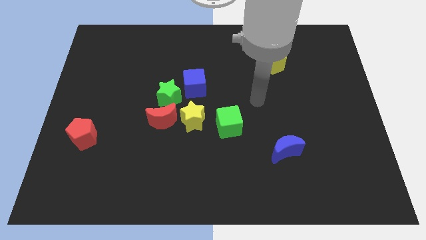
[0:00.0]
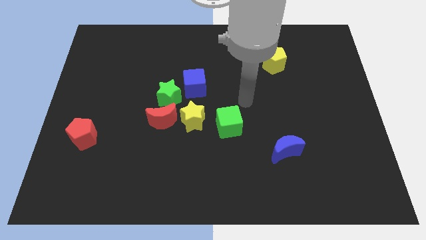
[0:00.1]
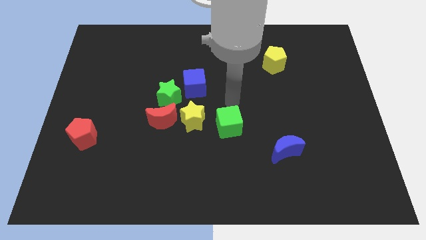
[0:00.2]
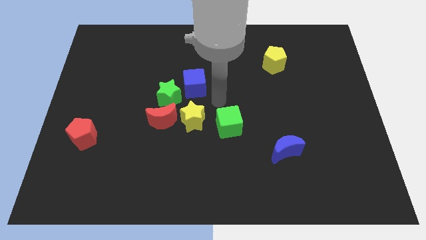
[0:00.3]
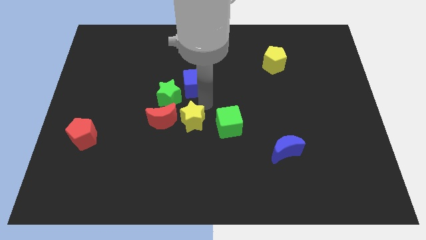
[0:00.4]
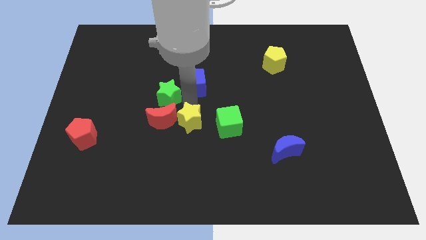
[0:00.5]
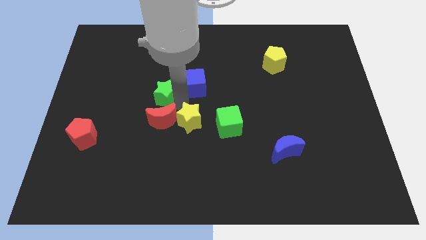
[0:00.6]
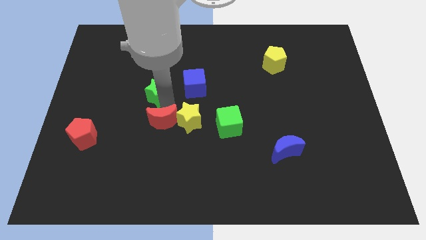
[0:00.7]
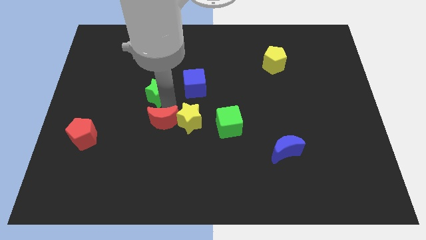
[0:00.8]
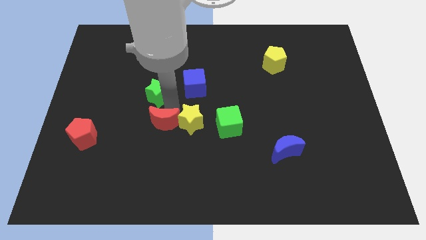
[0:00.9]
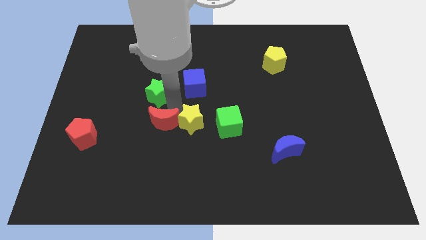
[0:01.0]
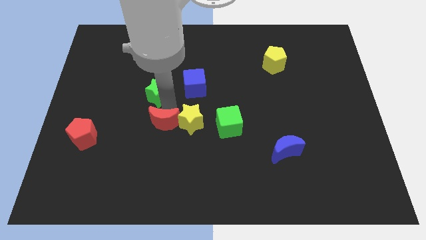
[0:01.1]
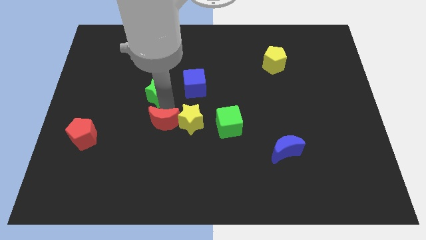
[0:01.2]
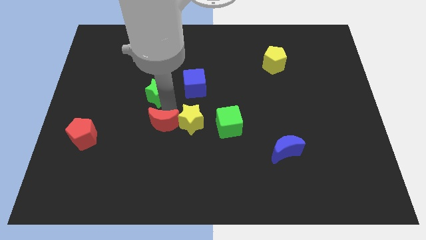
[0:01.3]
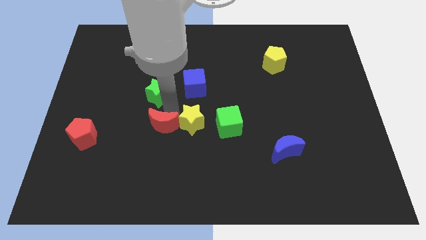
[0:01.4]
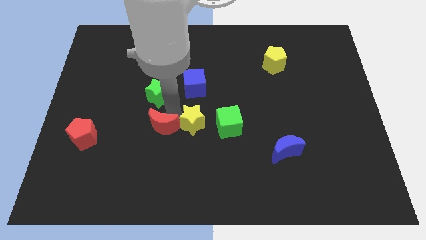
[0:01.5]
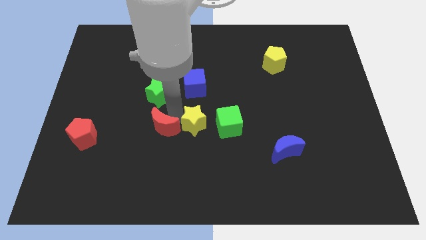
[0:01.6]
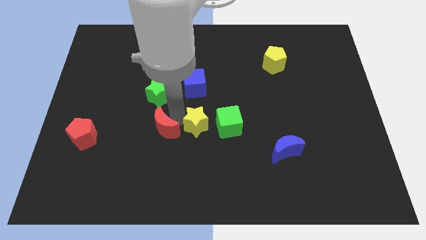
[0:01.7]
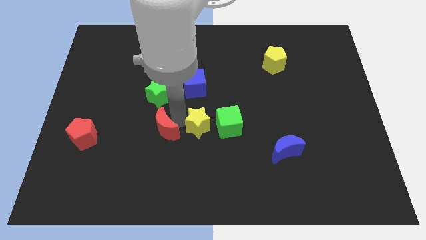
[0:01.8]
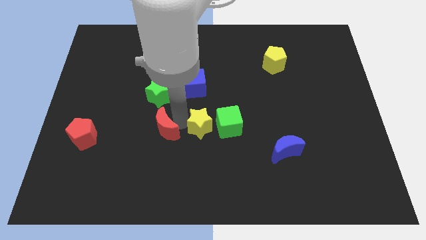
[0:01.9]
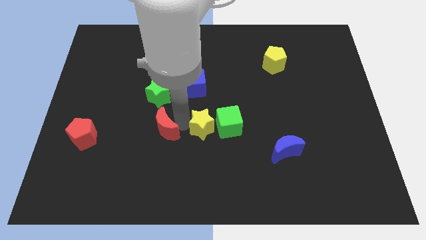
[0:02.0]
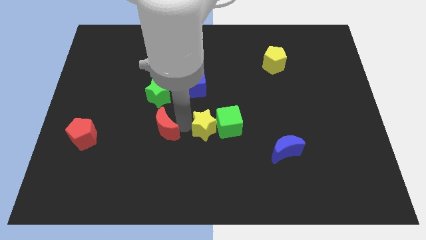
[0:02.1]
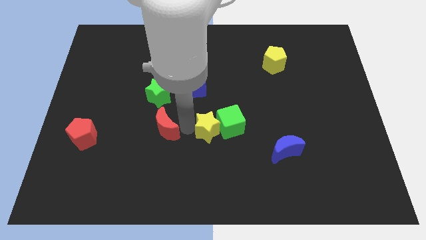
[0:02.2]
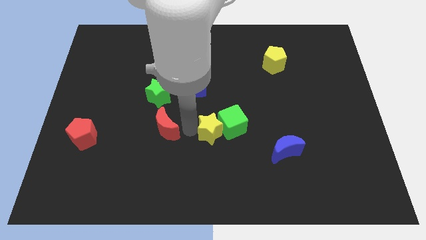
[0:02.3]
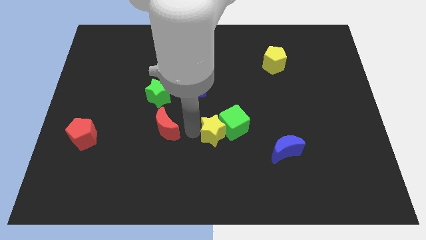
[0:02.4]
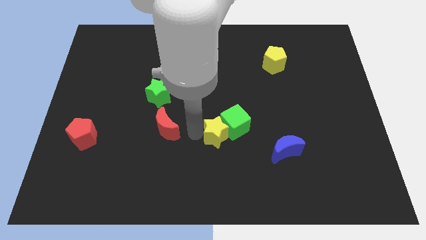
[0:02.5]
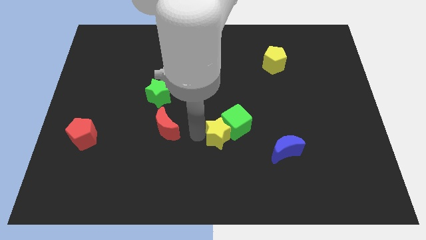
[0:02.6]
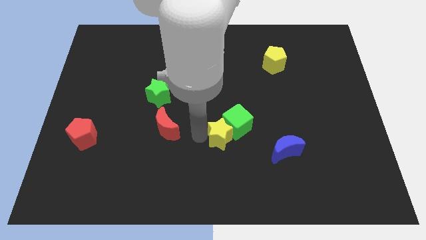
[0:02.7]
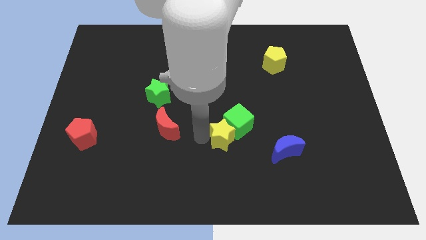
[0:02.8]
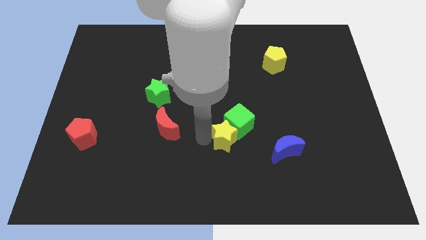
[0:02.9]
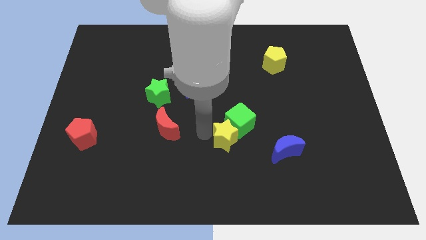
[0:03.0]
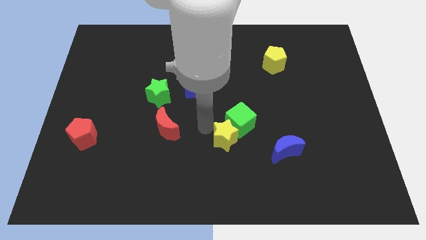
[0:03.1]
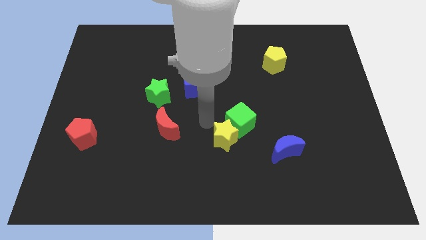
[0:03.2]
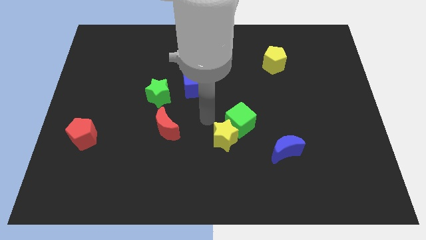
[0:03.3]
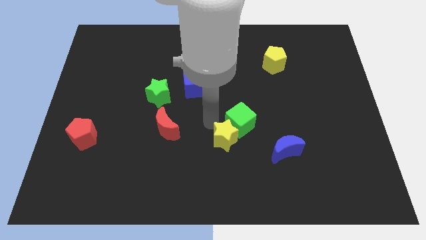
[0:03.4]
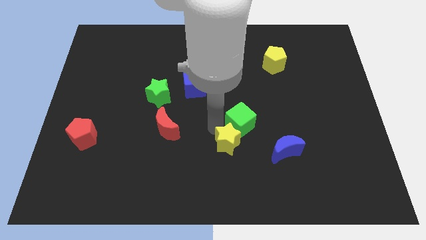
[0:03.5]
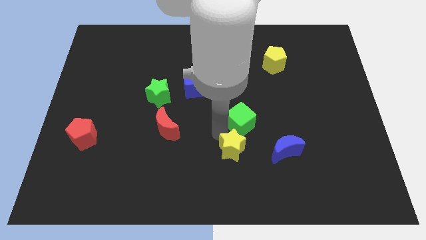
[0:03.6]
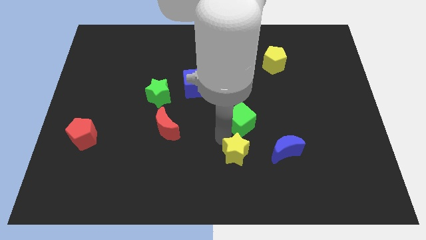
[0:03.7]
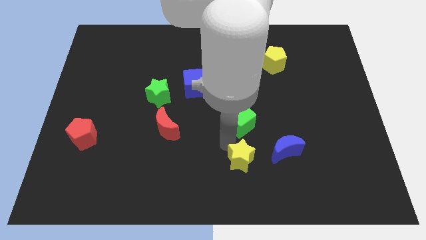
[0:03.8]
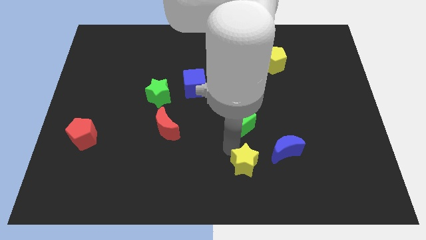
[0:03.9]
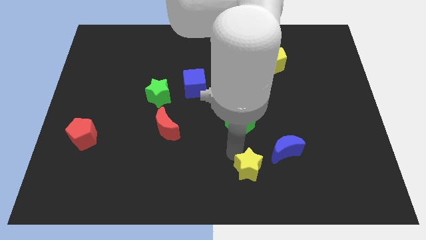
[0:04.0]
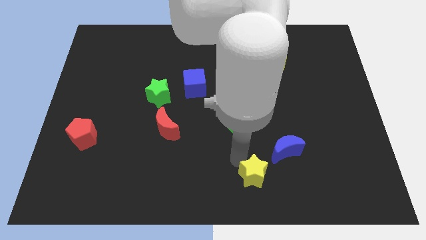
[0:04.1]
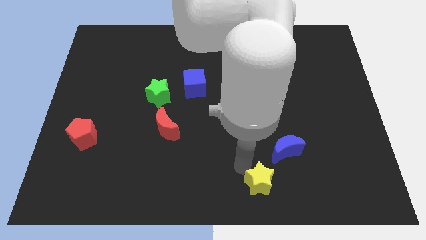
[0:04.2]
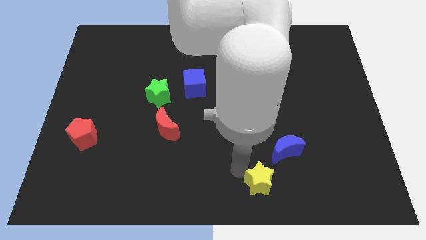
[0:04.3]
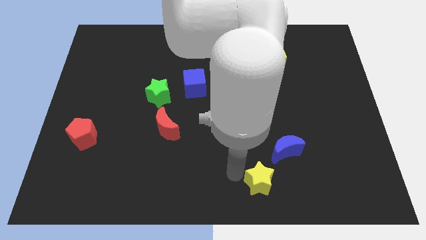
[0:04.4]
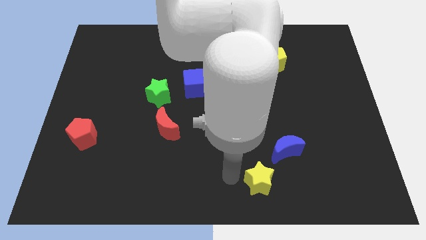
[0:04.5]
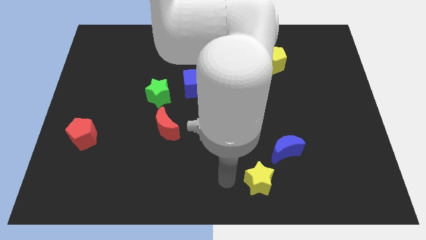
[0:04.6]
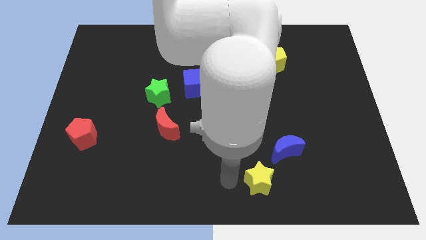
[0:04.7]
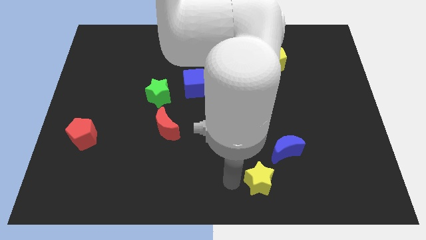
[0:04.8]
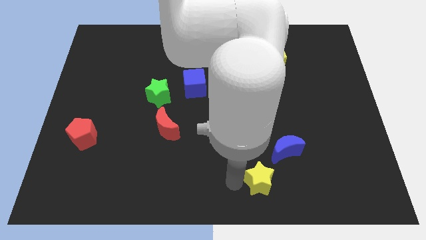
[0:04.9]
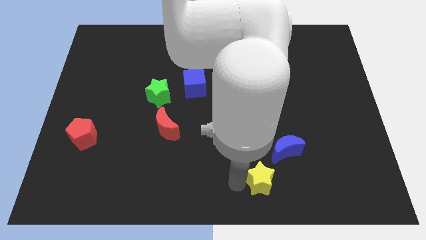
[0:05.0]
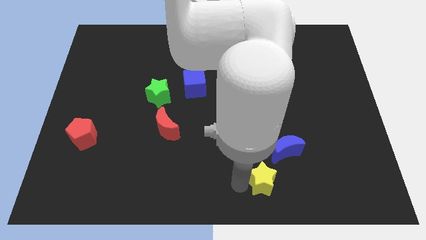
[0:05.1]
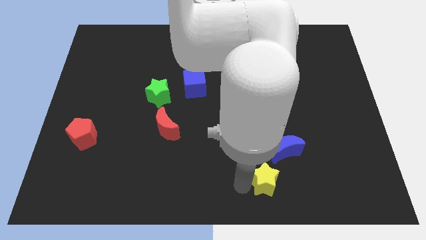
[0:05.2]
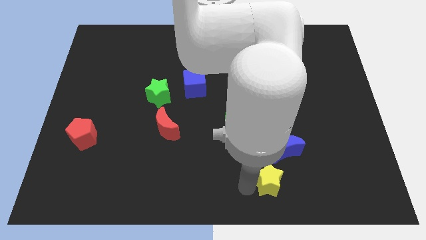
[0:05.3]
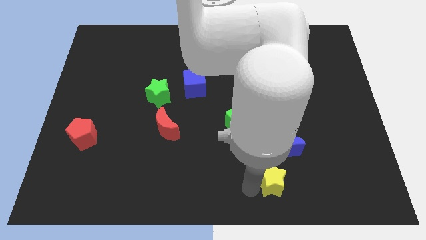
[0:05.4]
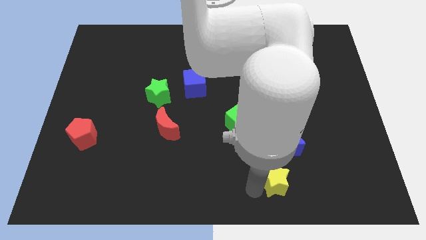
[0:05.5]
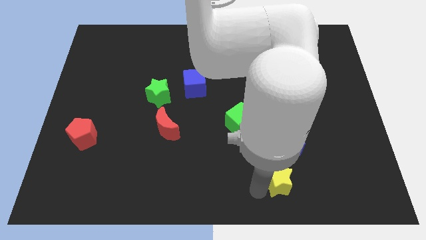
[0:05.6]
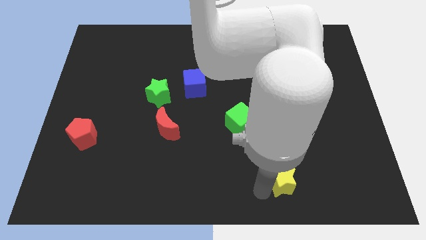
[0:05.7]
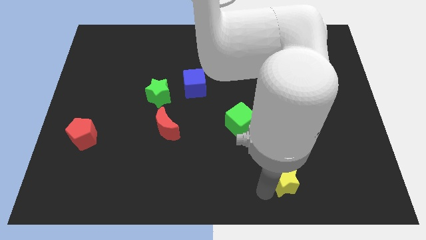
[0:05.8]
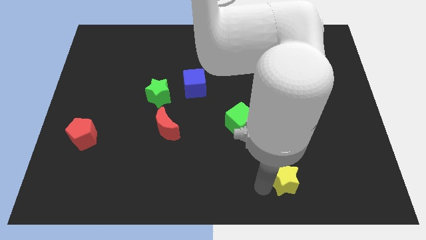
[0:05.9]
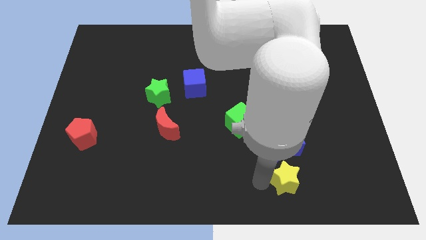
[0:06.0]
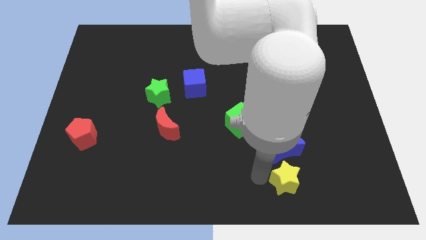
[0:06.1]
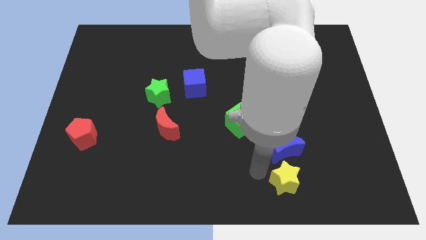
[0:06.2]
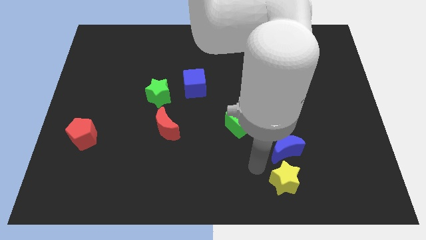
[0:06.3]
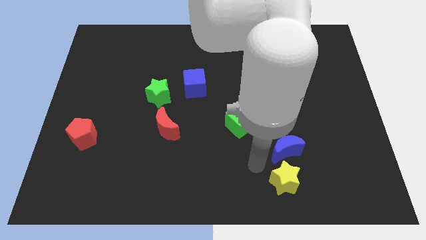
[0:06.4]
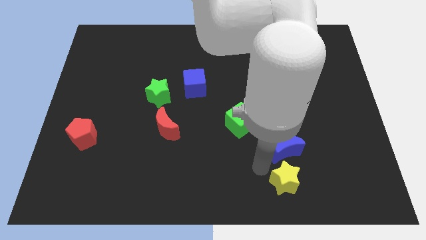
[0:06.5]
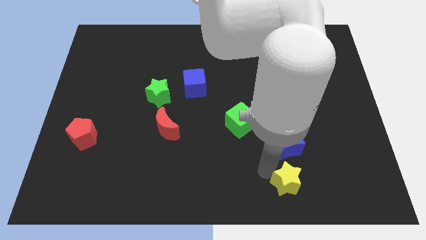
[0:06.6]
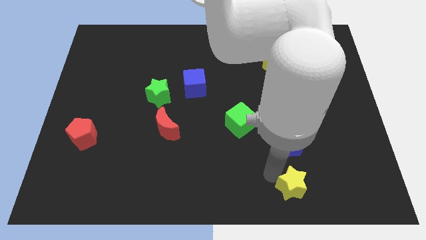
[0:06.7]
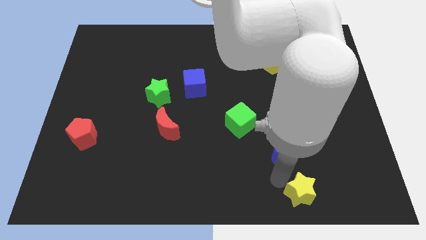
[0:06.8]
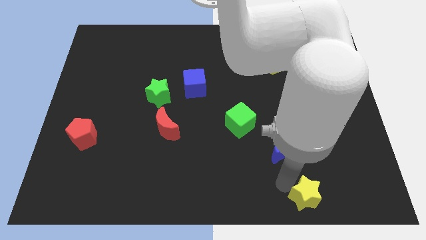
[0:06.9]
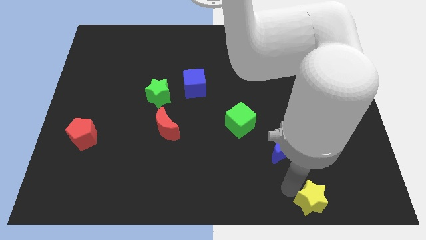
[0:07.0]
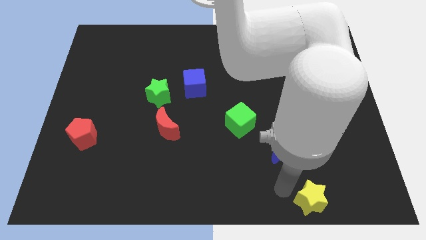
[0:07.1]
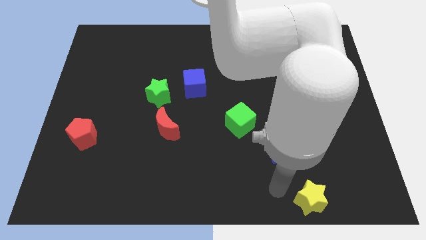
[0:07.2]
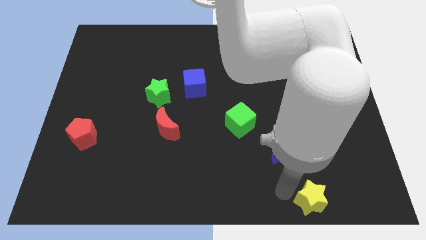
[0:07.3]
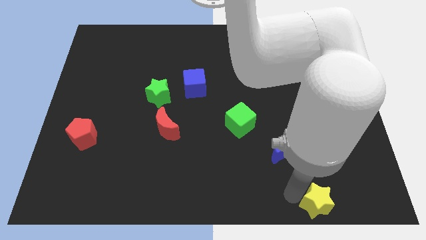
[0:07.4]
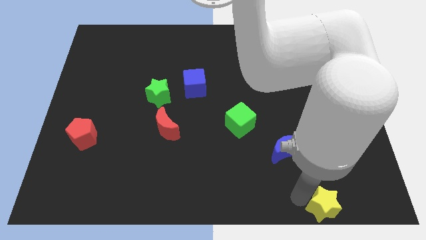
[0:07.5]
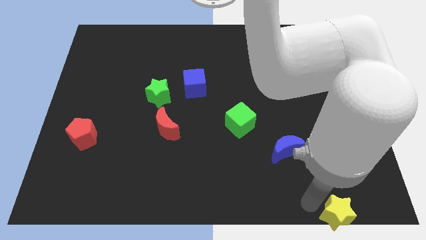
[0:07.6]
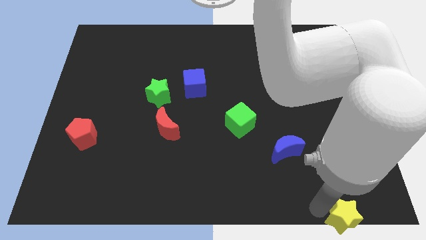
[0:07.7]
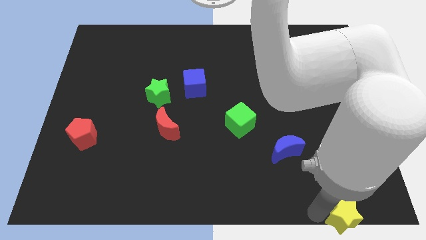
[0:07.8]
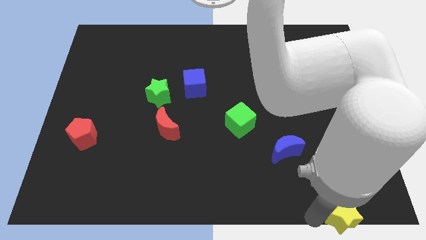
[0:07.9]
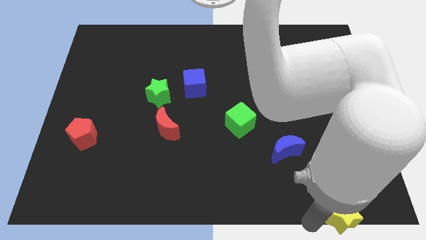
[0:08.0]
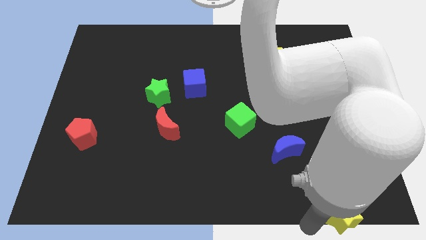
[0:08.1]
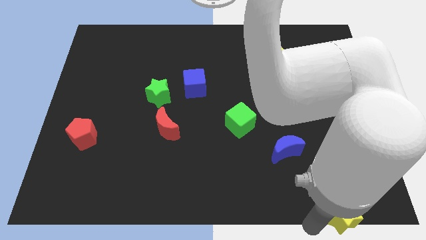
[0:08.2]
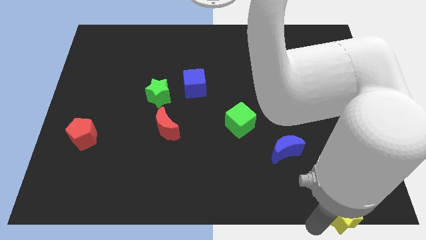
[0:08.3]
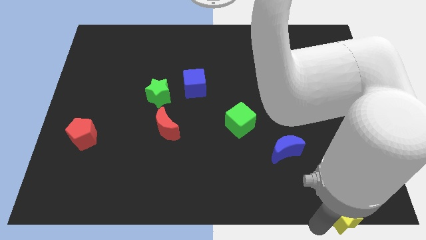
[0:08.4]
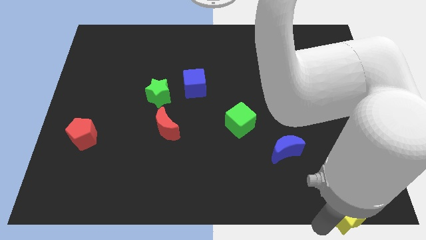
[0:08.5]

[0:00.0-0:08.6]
put the yellow star to the bottom right

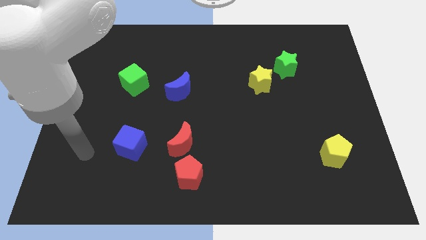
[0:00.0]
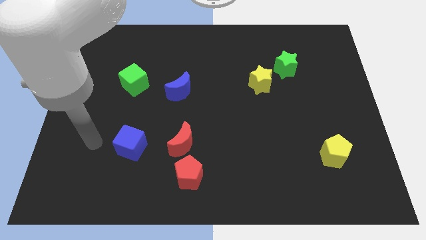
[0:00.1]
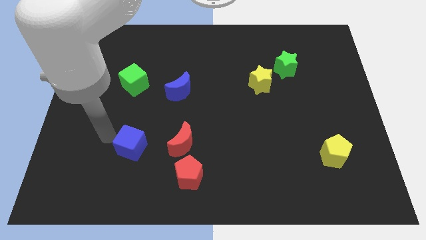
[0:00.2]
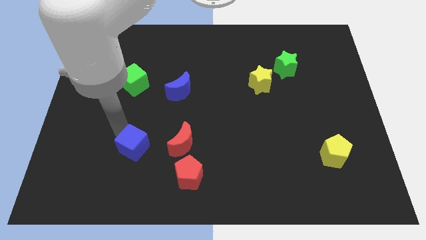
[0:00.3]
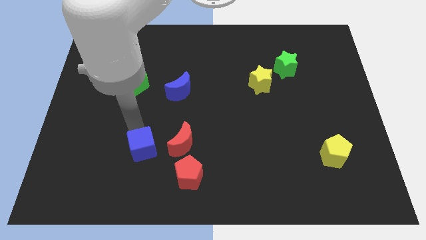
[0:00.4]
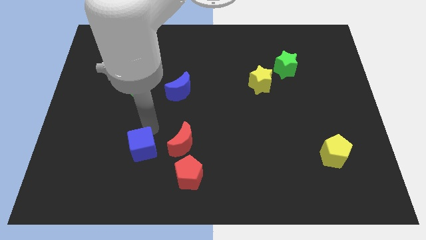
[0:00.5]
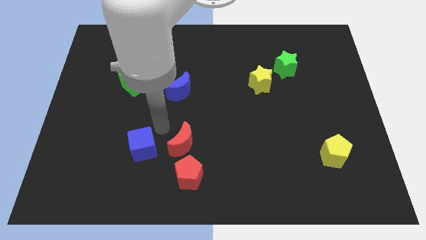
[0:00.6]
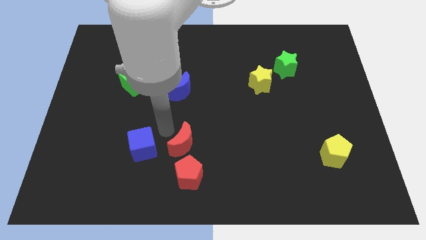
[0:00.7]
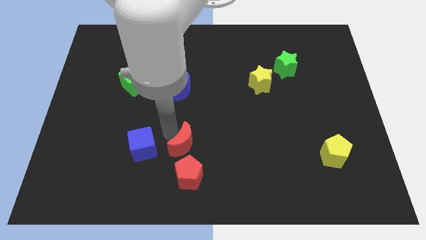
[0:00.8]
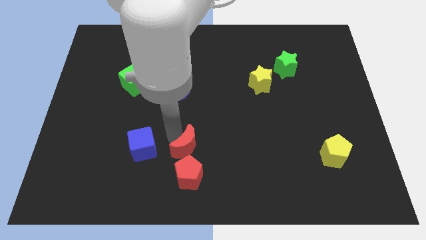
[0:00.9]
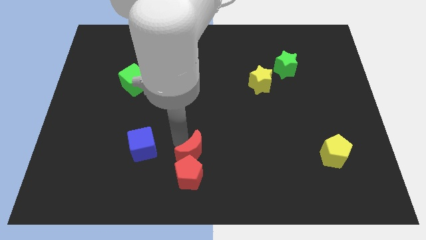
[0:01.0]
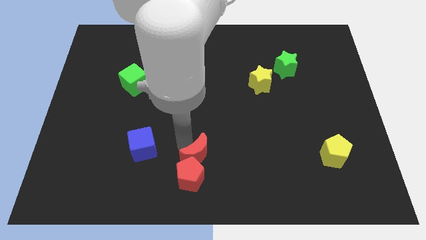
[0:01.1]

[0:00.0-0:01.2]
put the red moon to the bottom
